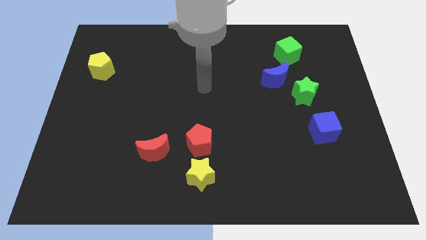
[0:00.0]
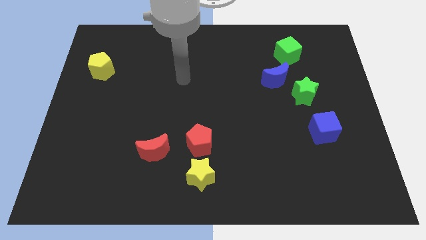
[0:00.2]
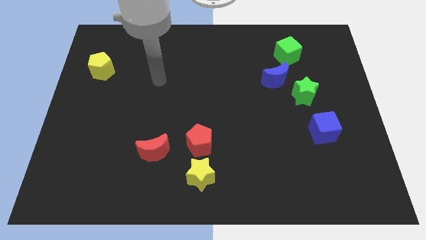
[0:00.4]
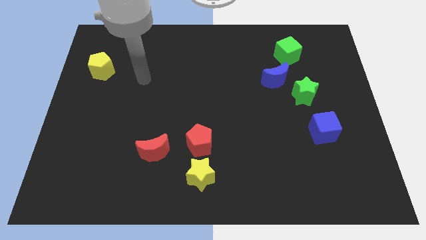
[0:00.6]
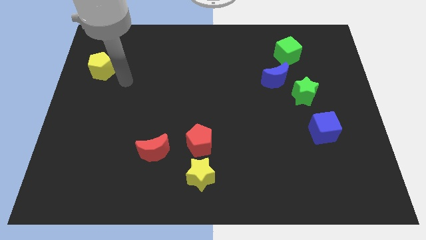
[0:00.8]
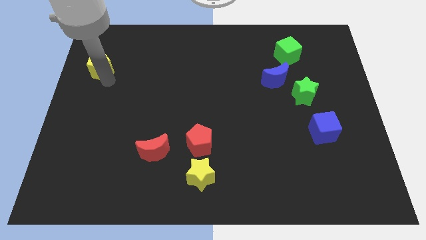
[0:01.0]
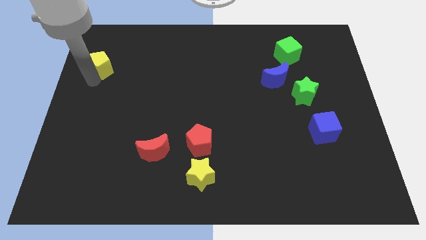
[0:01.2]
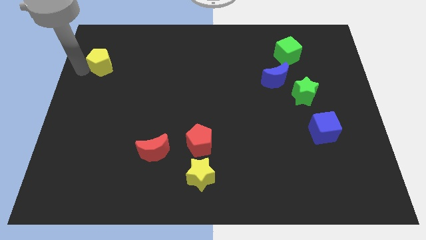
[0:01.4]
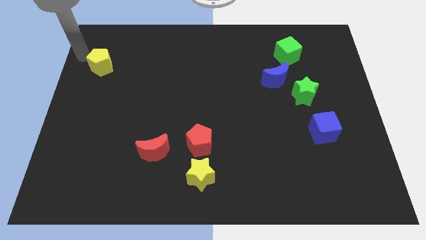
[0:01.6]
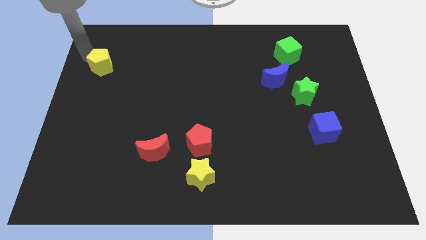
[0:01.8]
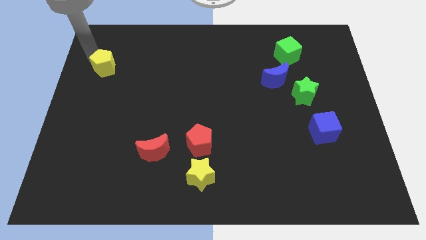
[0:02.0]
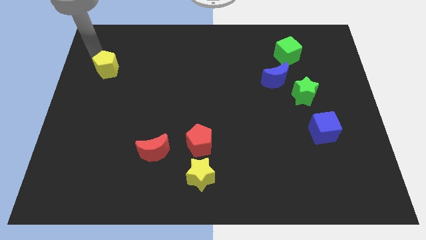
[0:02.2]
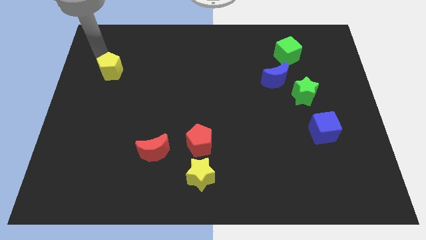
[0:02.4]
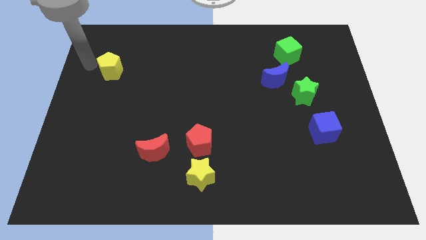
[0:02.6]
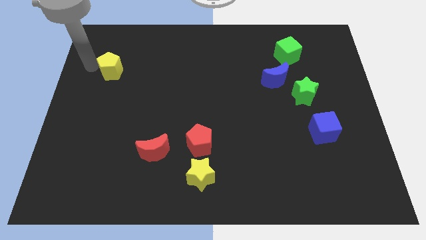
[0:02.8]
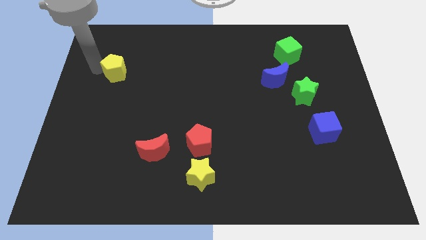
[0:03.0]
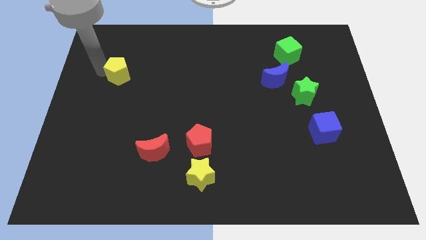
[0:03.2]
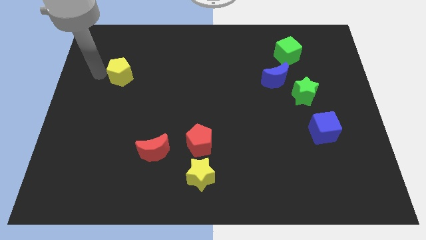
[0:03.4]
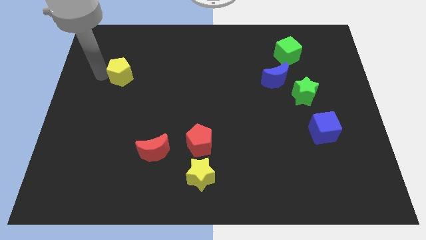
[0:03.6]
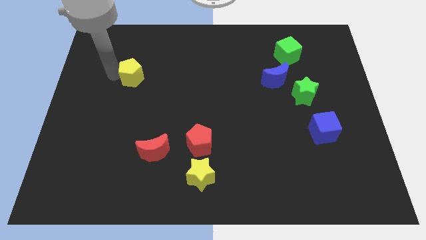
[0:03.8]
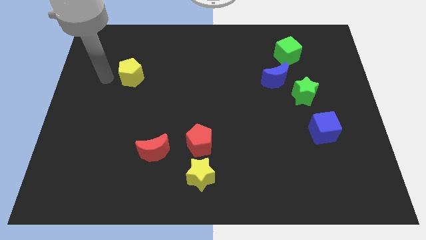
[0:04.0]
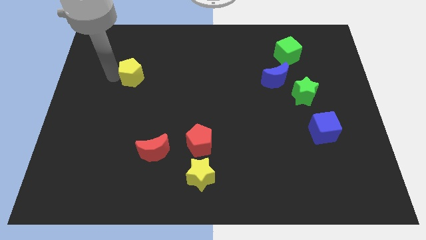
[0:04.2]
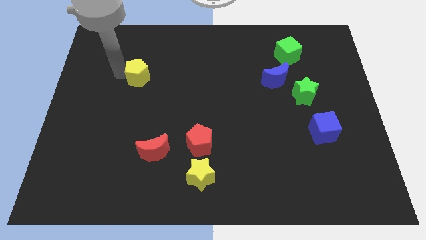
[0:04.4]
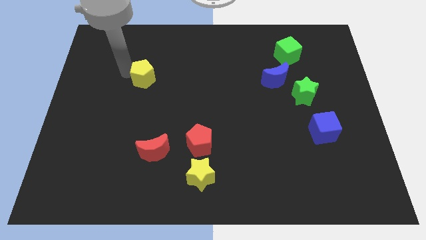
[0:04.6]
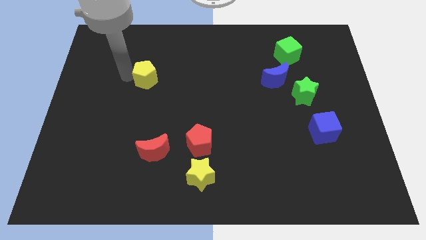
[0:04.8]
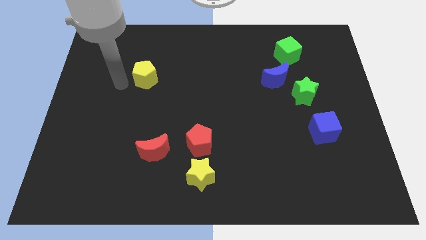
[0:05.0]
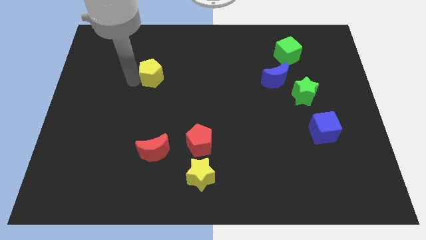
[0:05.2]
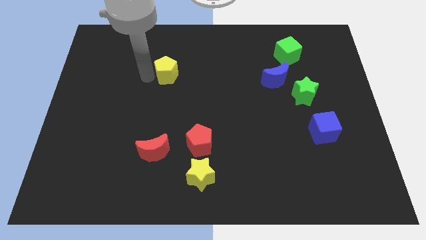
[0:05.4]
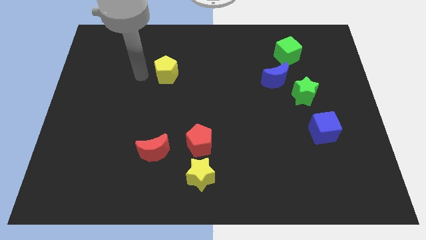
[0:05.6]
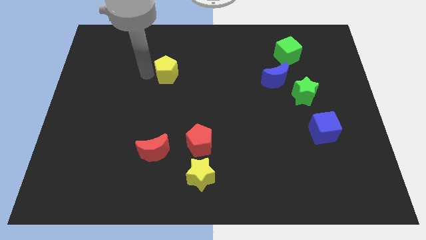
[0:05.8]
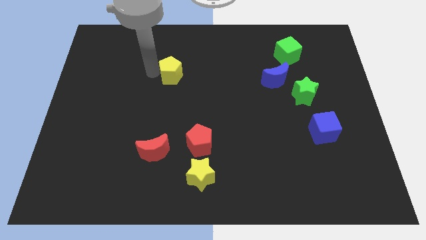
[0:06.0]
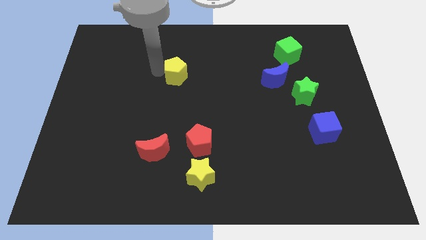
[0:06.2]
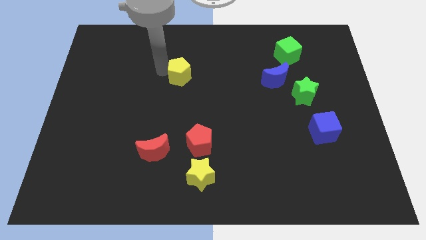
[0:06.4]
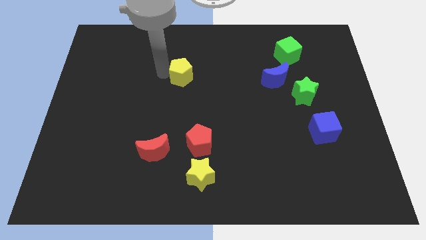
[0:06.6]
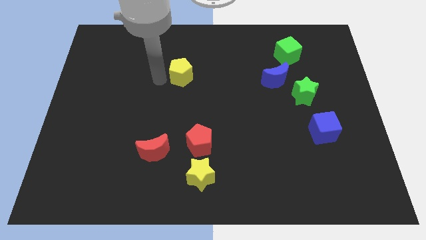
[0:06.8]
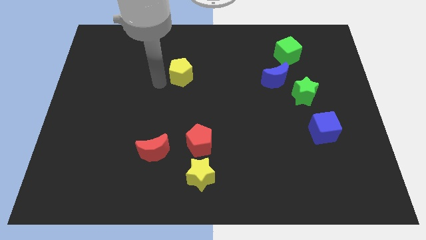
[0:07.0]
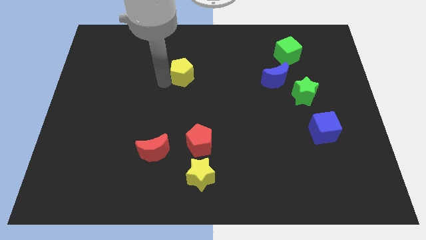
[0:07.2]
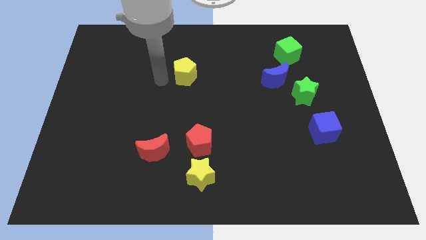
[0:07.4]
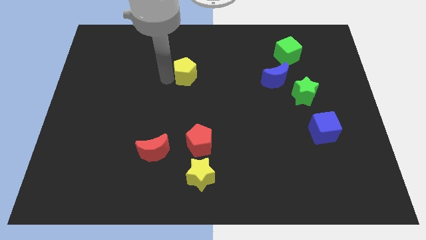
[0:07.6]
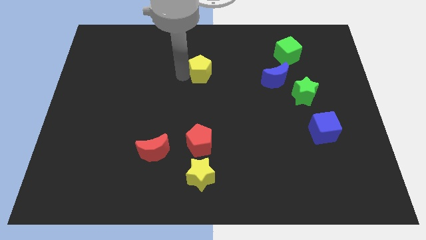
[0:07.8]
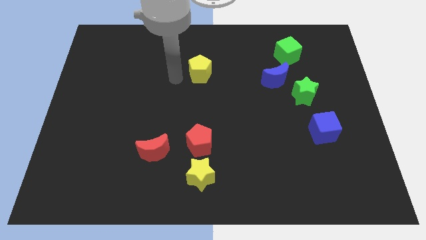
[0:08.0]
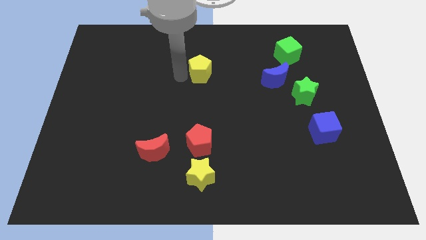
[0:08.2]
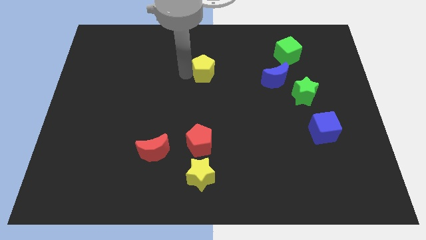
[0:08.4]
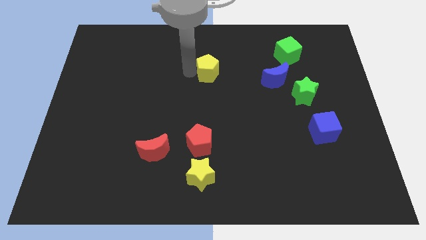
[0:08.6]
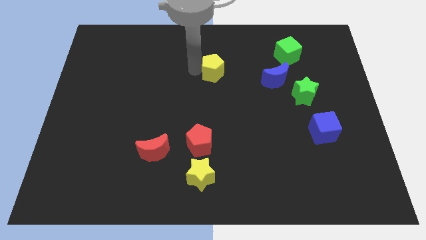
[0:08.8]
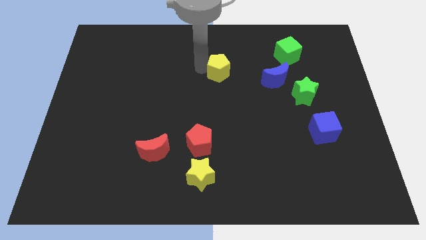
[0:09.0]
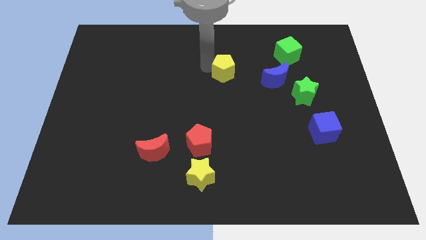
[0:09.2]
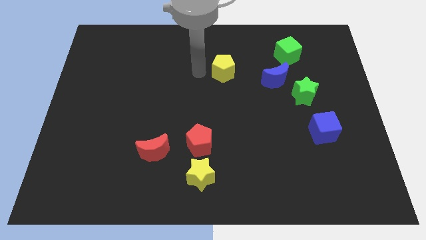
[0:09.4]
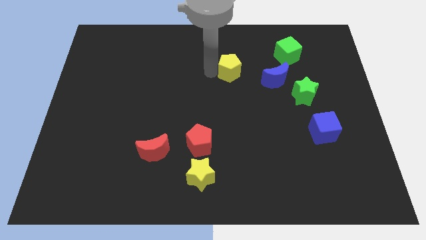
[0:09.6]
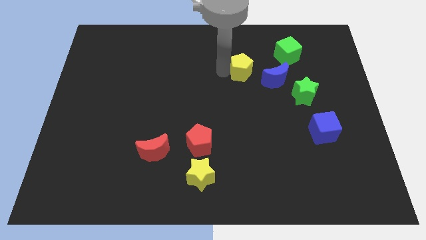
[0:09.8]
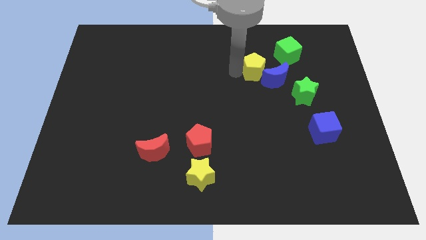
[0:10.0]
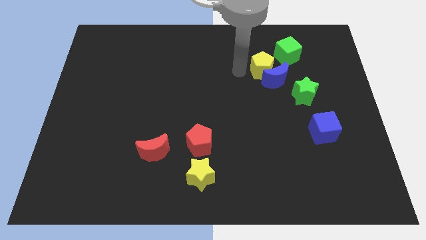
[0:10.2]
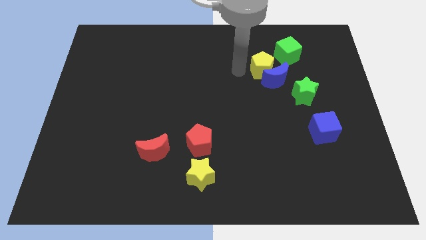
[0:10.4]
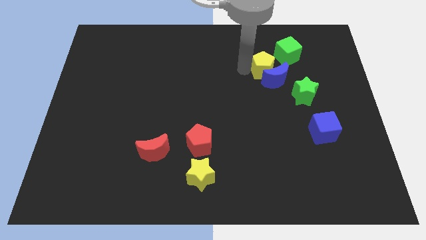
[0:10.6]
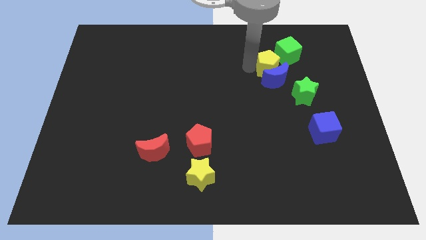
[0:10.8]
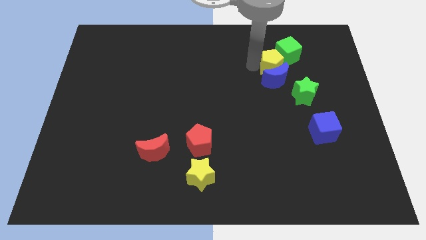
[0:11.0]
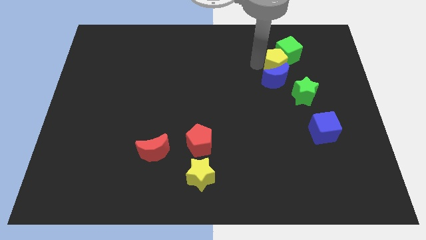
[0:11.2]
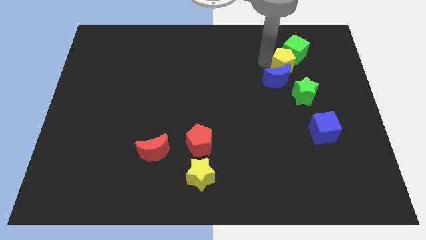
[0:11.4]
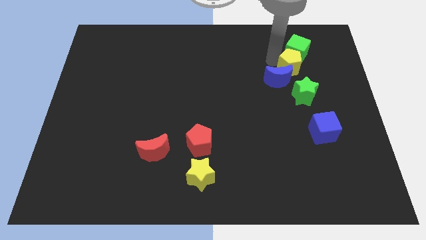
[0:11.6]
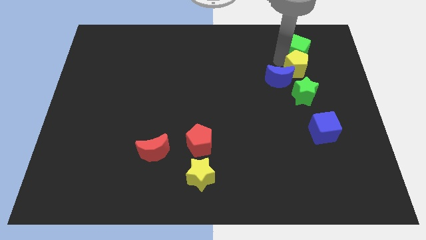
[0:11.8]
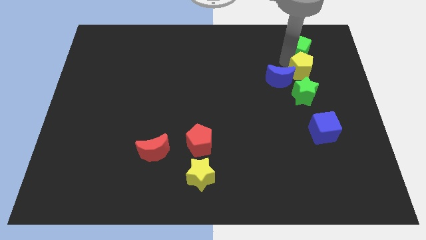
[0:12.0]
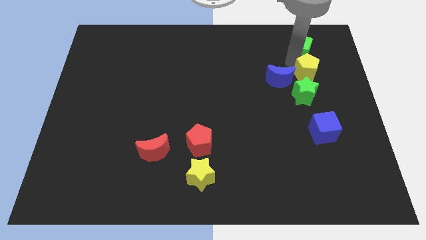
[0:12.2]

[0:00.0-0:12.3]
move the yellow pentagon to the top right side of the green star

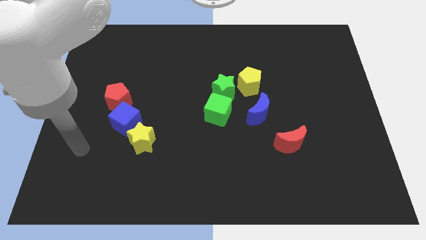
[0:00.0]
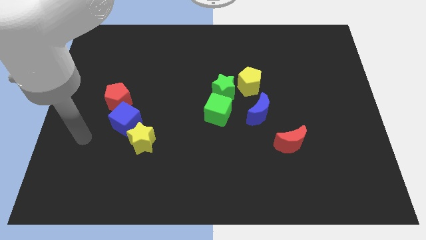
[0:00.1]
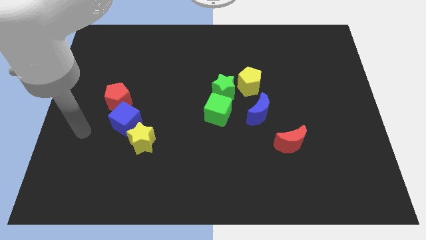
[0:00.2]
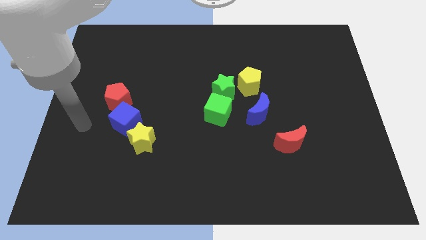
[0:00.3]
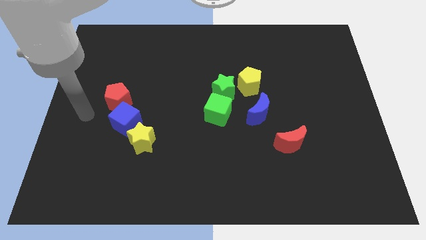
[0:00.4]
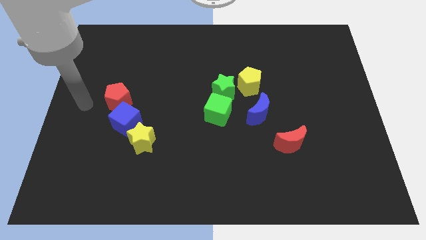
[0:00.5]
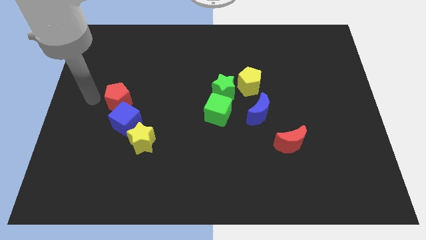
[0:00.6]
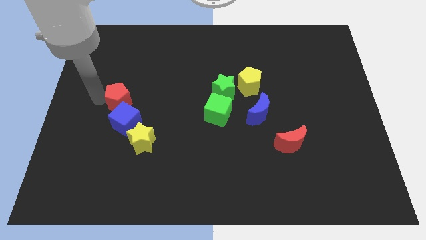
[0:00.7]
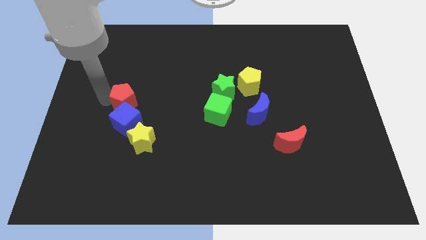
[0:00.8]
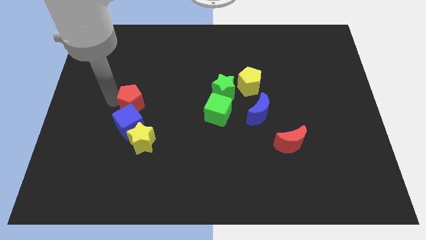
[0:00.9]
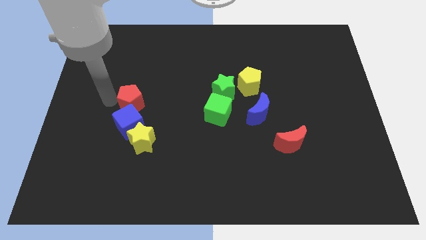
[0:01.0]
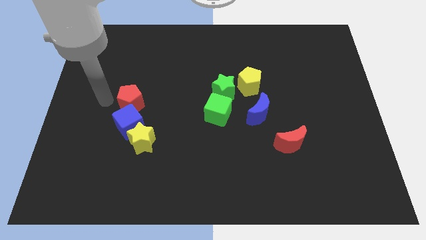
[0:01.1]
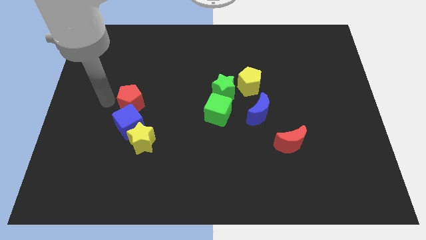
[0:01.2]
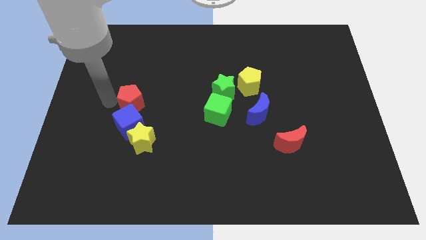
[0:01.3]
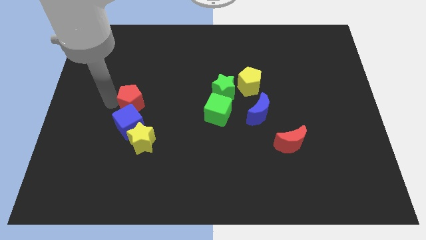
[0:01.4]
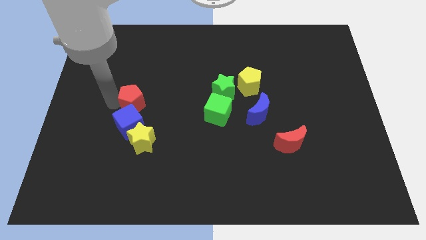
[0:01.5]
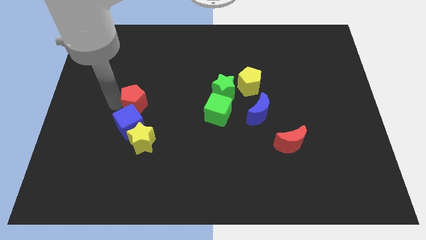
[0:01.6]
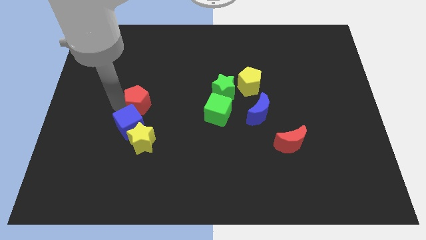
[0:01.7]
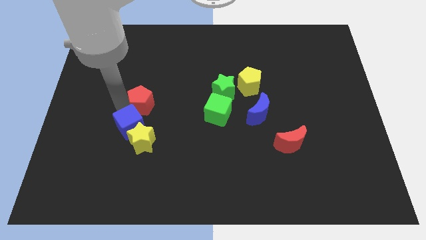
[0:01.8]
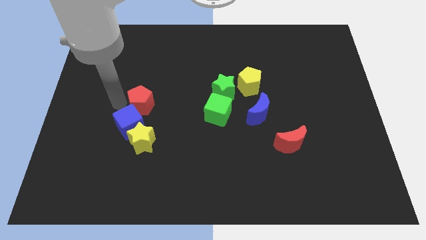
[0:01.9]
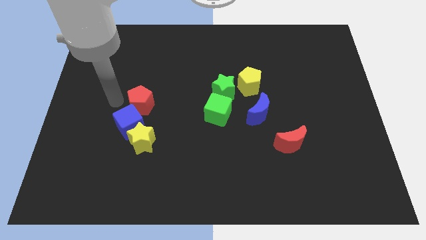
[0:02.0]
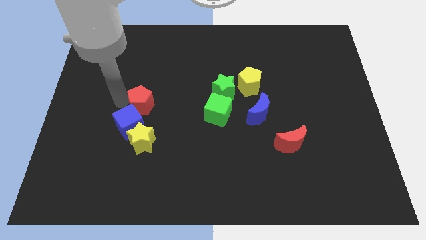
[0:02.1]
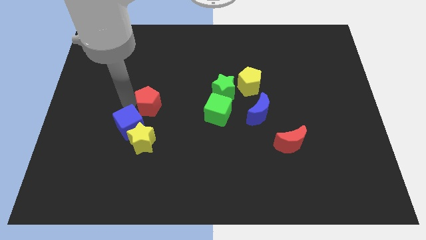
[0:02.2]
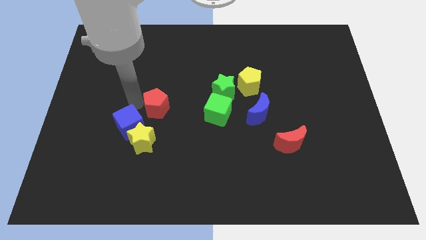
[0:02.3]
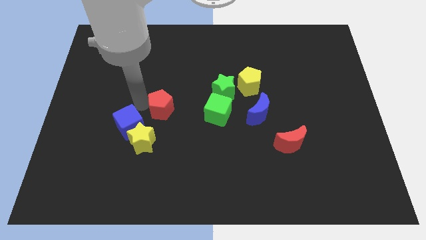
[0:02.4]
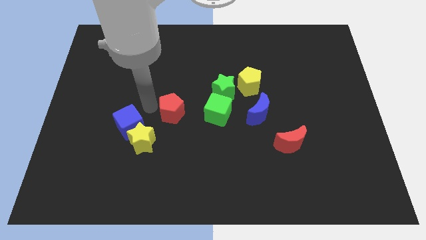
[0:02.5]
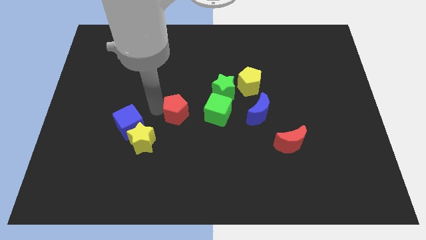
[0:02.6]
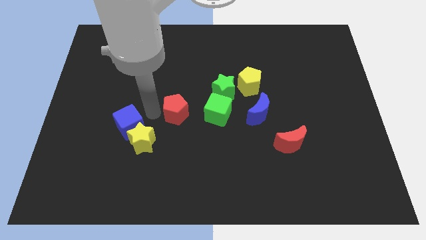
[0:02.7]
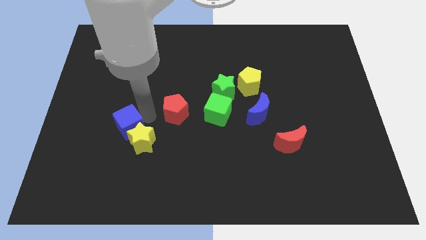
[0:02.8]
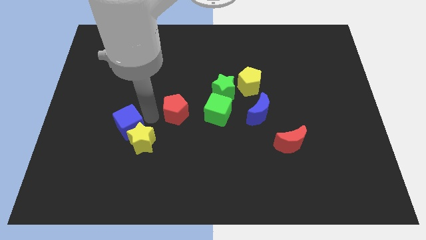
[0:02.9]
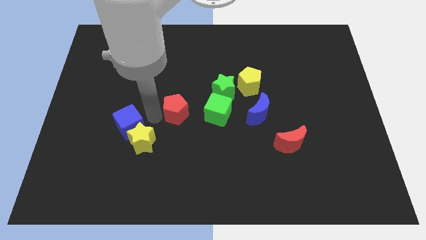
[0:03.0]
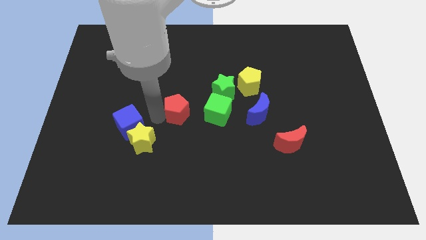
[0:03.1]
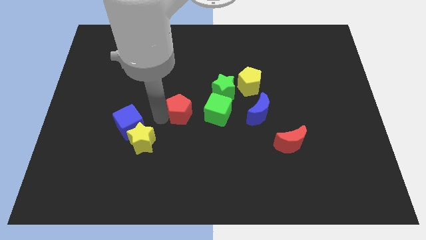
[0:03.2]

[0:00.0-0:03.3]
push the red pentagon diagonally down and to the left of the green star
